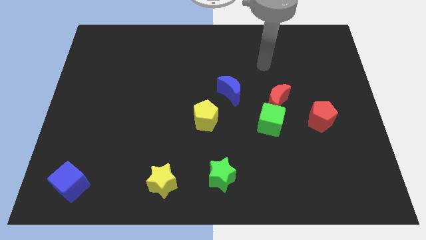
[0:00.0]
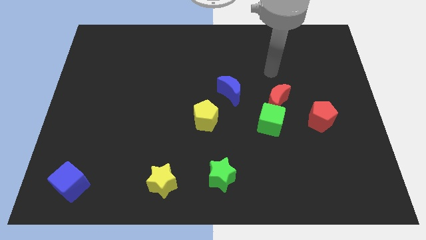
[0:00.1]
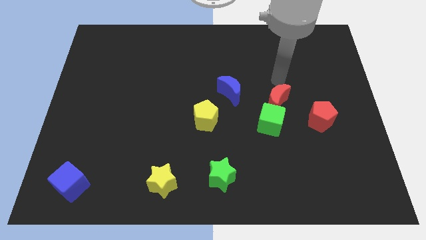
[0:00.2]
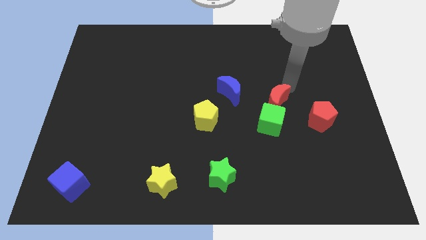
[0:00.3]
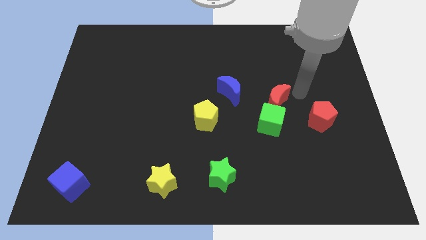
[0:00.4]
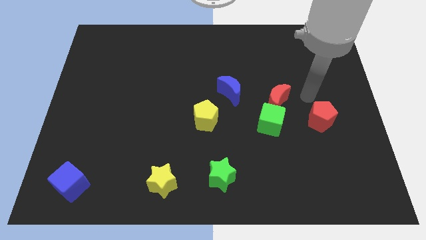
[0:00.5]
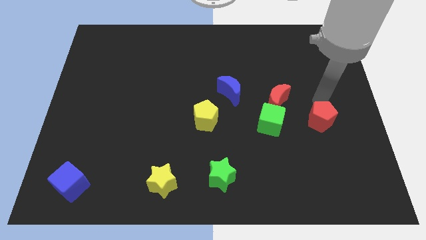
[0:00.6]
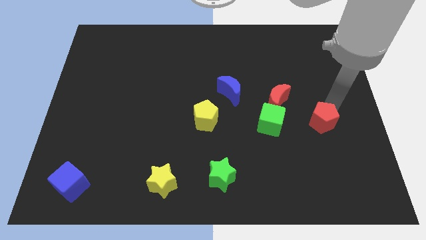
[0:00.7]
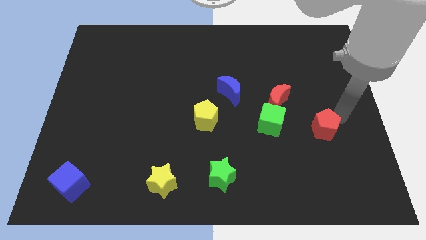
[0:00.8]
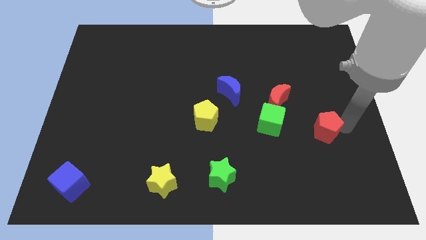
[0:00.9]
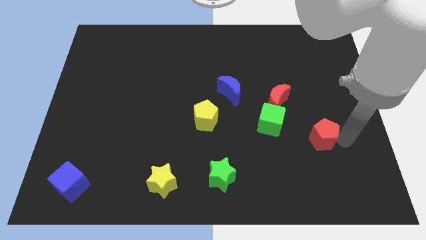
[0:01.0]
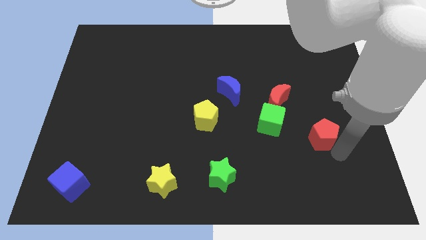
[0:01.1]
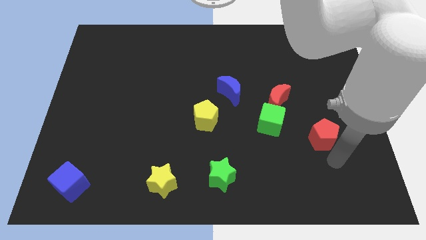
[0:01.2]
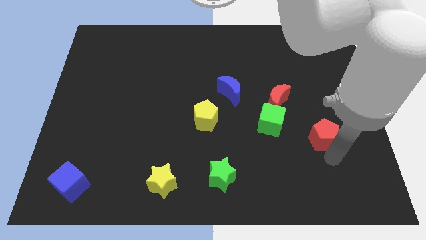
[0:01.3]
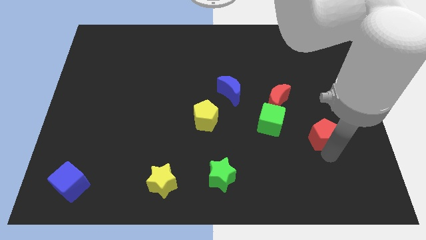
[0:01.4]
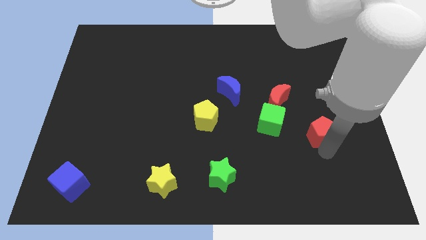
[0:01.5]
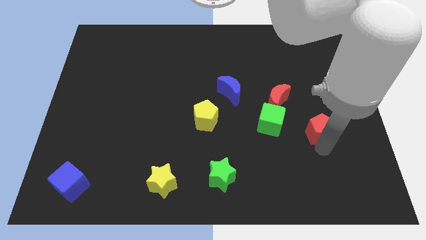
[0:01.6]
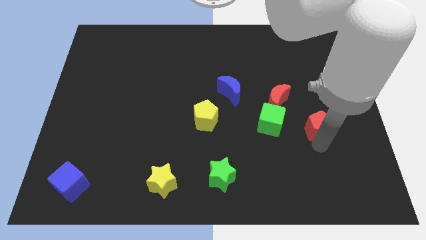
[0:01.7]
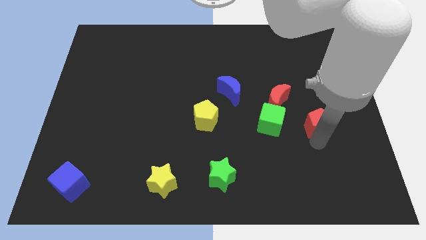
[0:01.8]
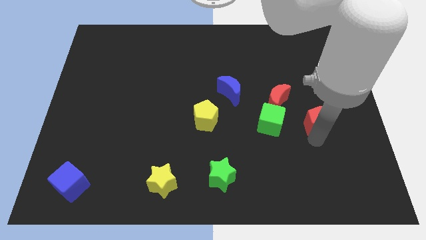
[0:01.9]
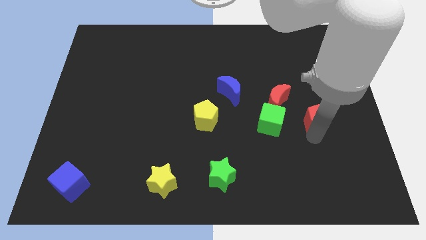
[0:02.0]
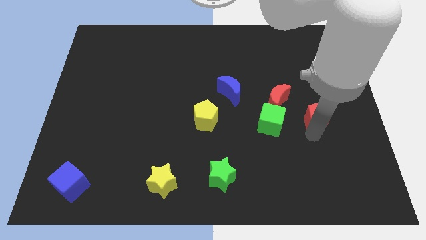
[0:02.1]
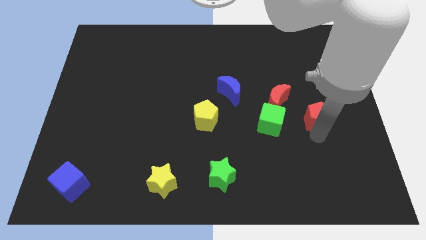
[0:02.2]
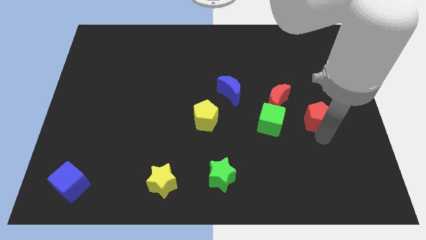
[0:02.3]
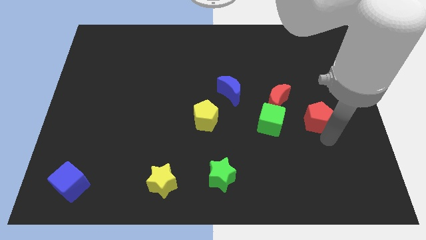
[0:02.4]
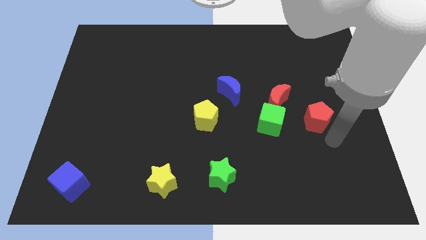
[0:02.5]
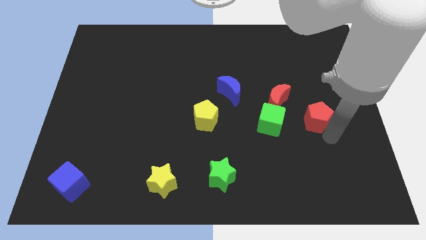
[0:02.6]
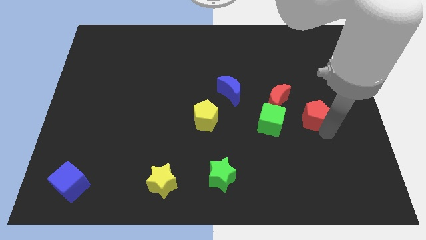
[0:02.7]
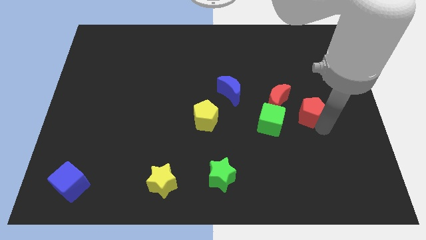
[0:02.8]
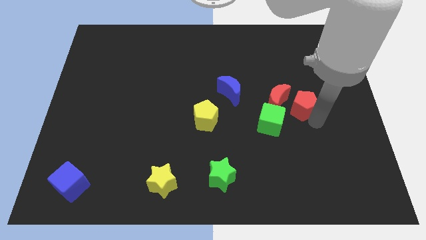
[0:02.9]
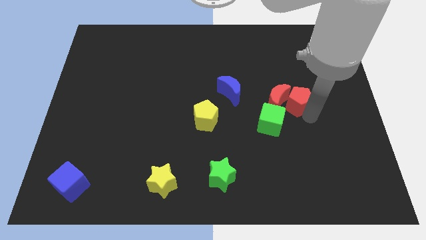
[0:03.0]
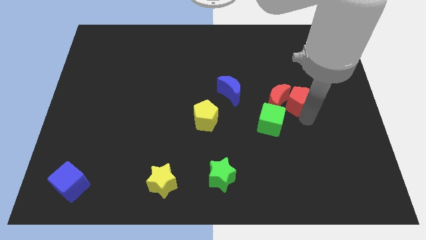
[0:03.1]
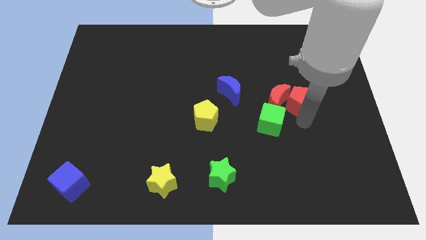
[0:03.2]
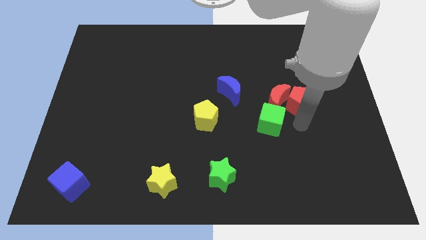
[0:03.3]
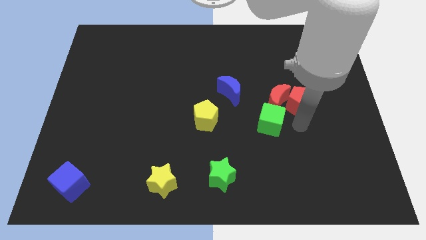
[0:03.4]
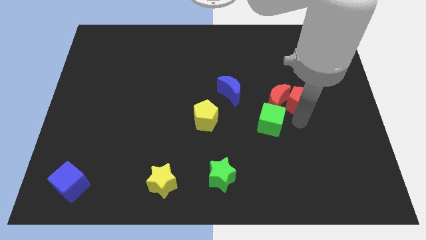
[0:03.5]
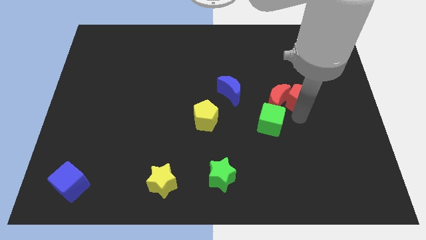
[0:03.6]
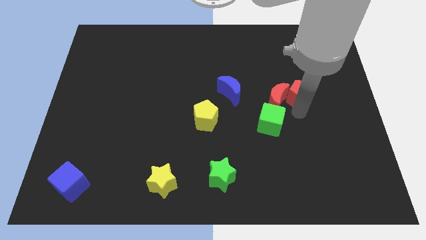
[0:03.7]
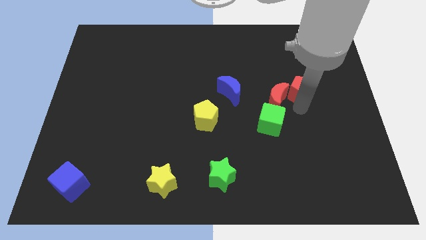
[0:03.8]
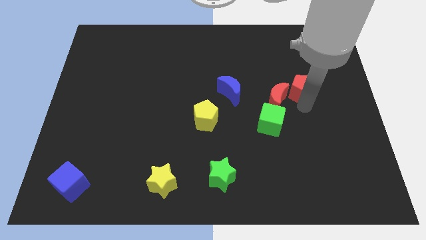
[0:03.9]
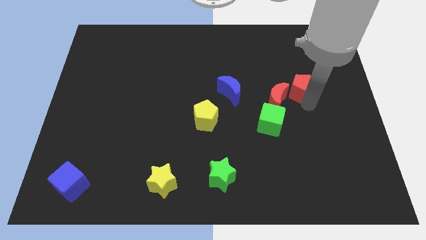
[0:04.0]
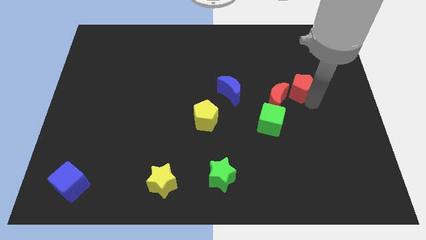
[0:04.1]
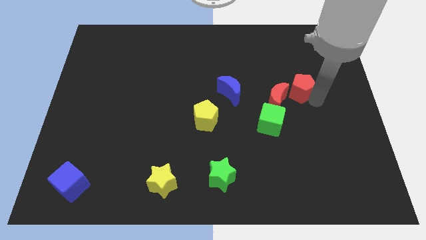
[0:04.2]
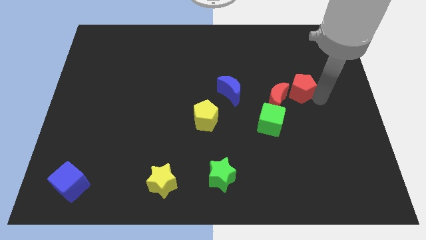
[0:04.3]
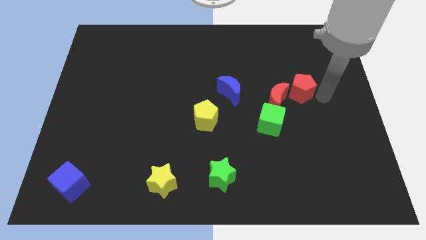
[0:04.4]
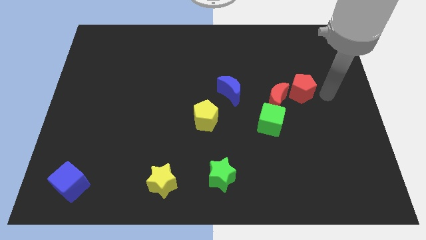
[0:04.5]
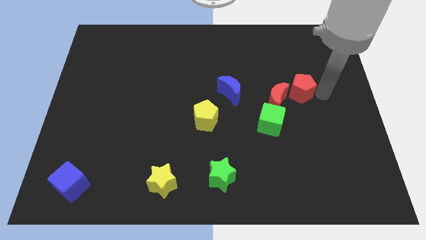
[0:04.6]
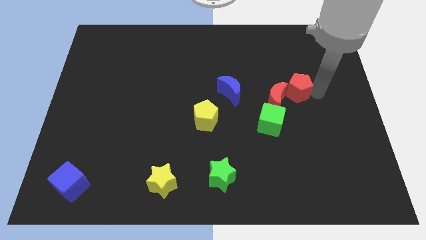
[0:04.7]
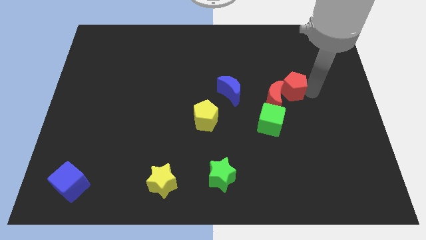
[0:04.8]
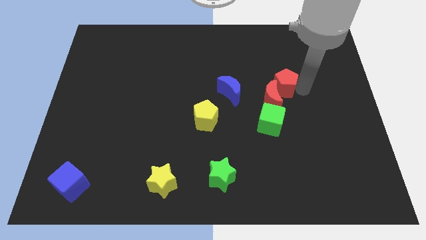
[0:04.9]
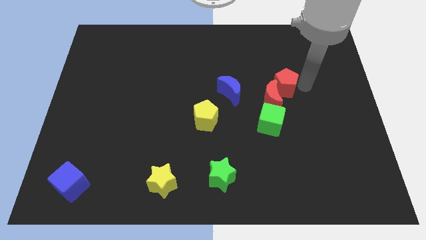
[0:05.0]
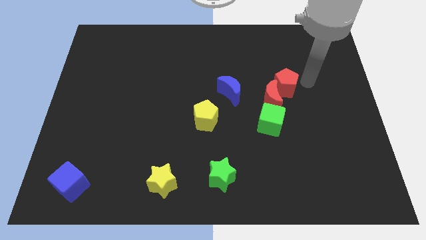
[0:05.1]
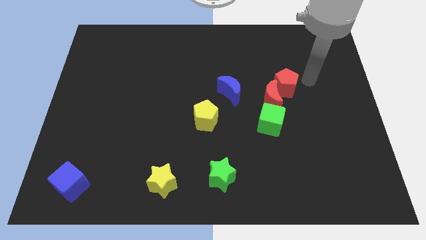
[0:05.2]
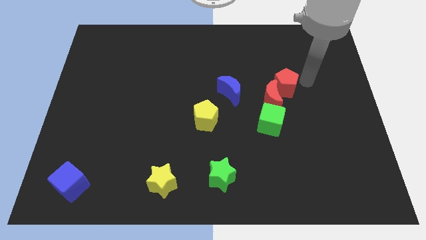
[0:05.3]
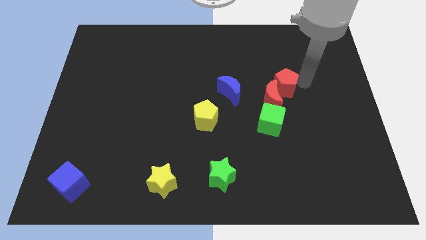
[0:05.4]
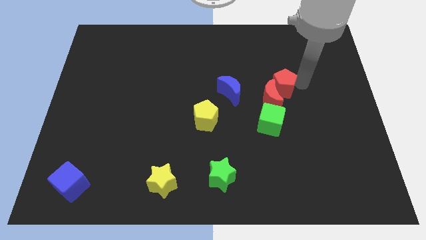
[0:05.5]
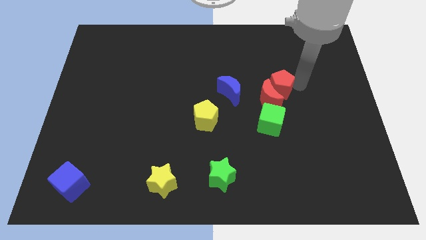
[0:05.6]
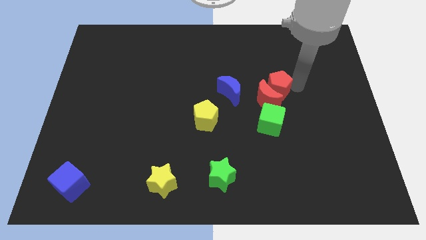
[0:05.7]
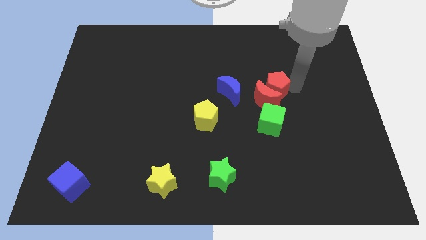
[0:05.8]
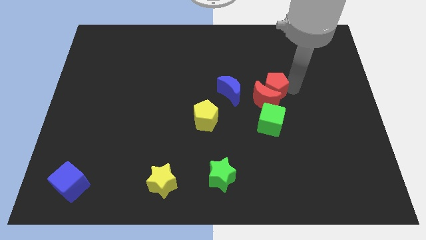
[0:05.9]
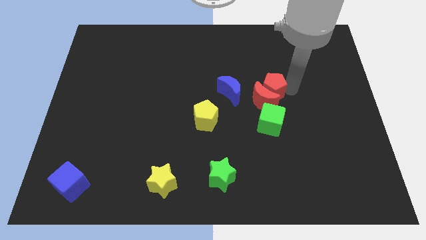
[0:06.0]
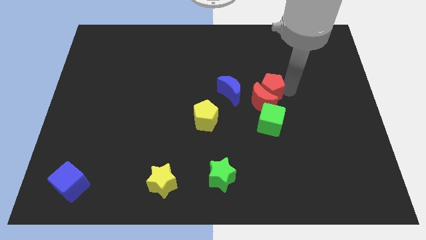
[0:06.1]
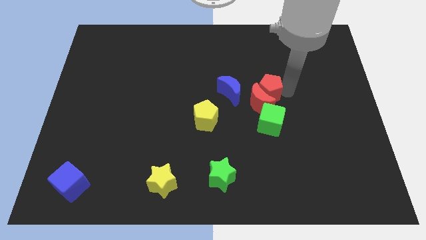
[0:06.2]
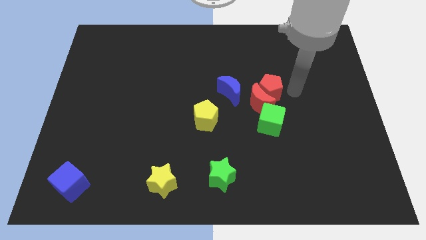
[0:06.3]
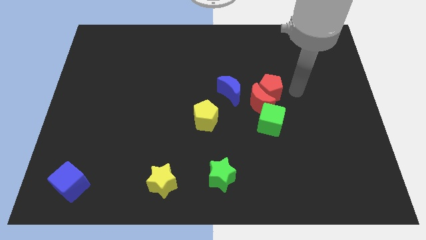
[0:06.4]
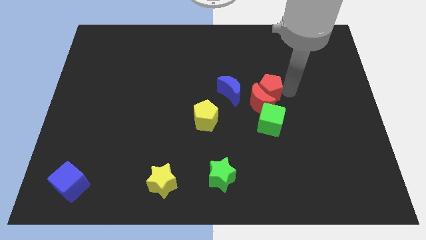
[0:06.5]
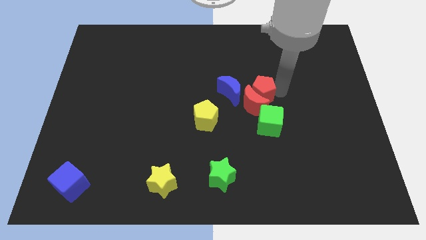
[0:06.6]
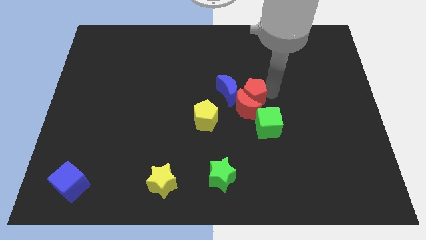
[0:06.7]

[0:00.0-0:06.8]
slide the red pentagon close to the blue moon
